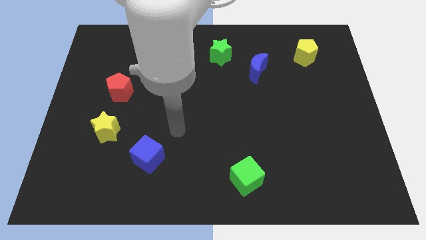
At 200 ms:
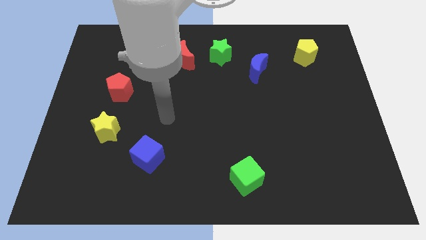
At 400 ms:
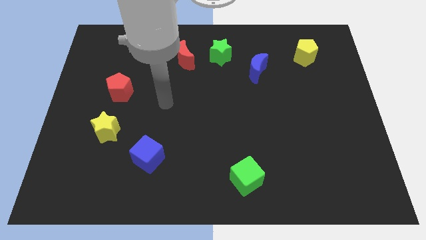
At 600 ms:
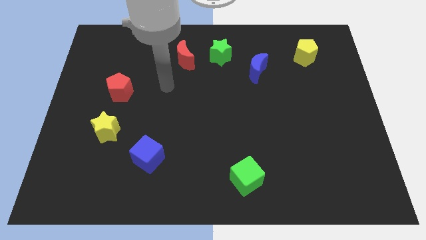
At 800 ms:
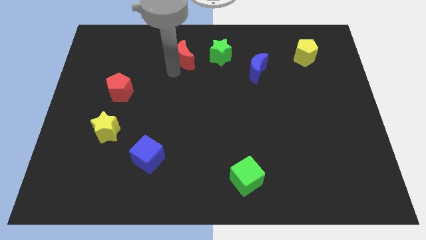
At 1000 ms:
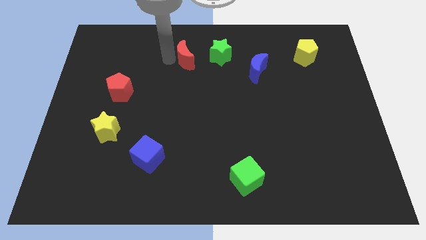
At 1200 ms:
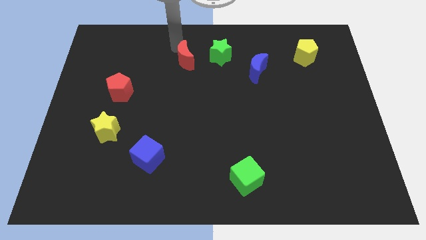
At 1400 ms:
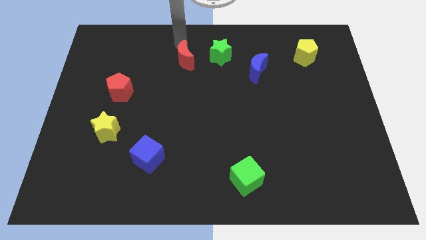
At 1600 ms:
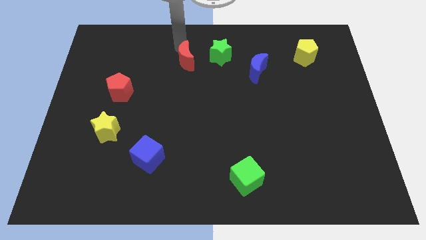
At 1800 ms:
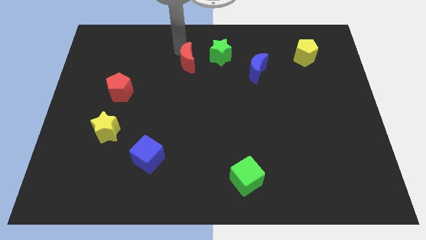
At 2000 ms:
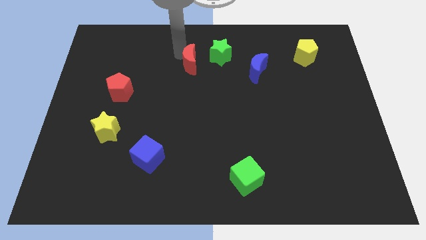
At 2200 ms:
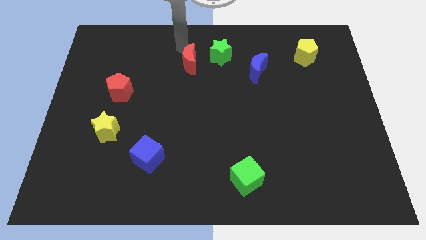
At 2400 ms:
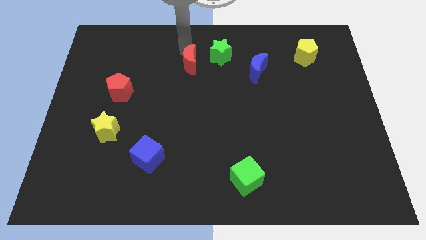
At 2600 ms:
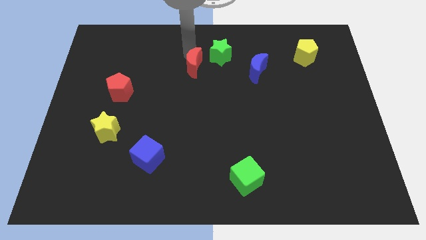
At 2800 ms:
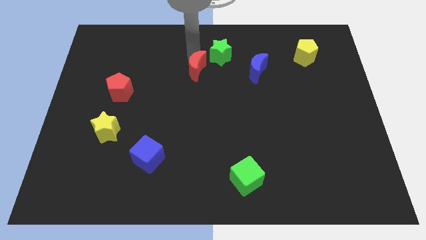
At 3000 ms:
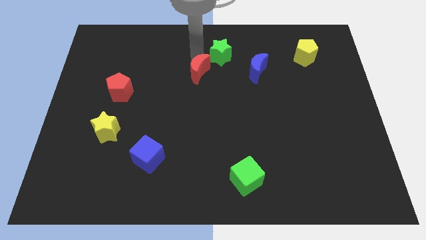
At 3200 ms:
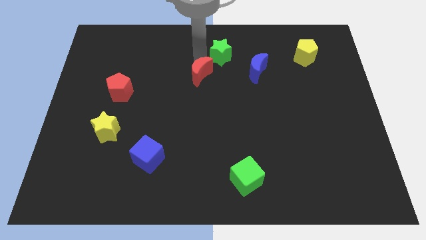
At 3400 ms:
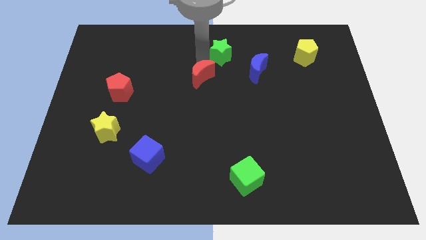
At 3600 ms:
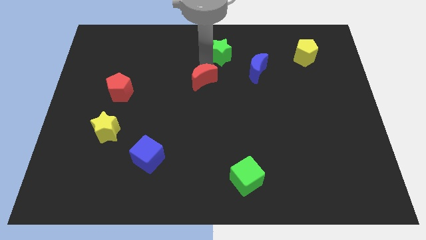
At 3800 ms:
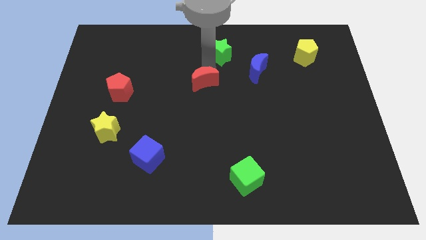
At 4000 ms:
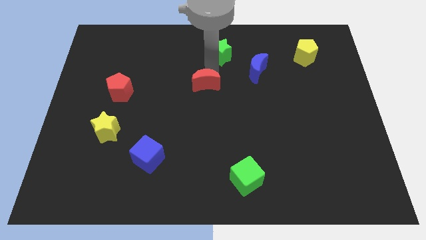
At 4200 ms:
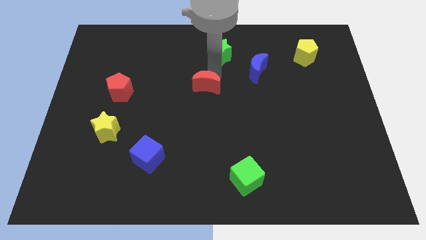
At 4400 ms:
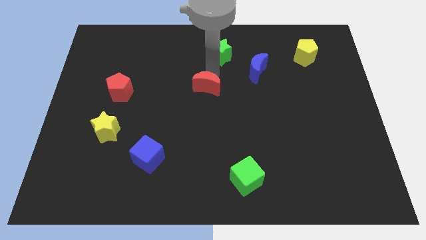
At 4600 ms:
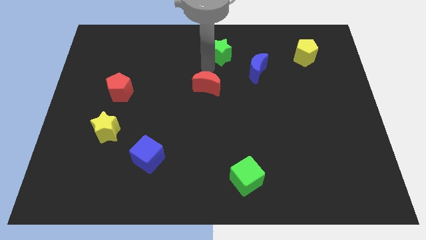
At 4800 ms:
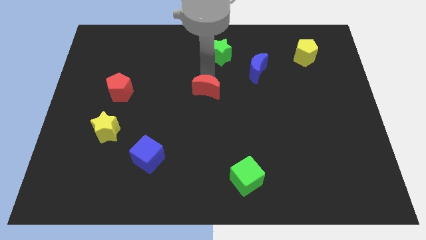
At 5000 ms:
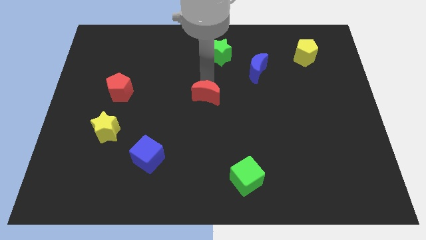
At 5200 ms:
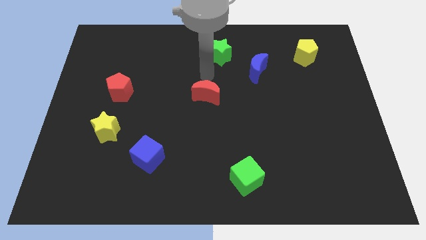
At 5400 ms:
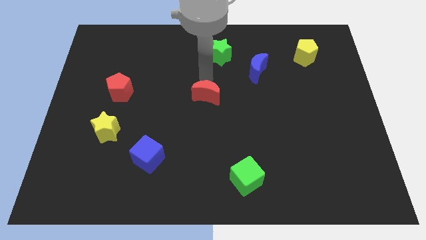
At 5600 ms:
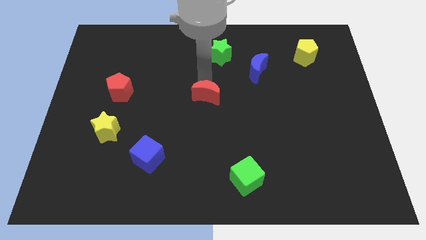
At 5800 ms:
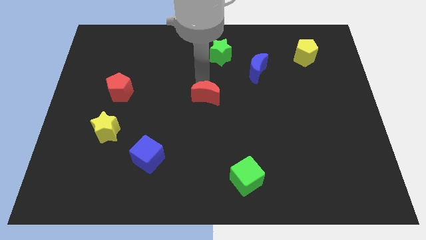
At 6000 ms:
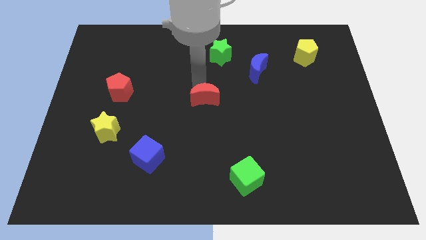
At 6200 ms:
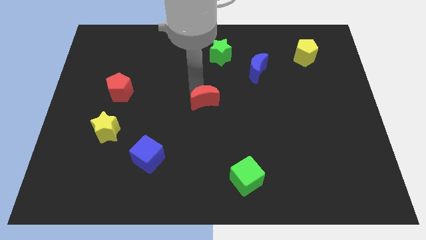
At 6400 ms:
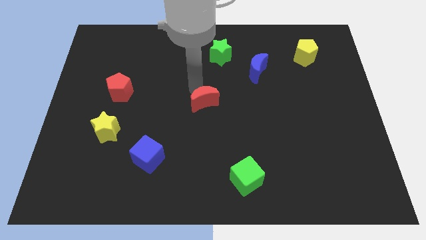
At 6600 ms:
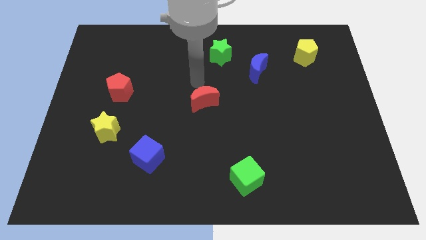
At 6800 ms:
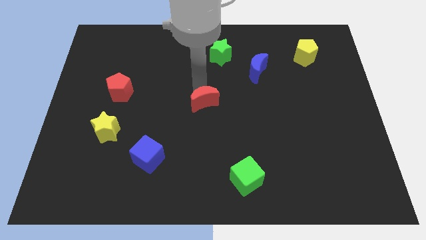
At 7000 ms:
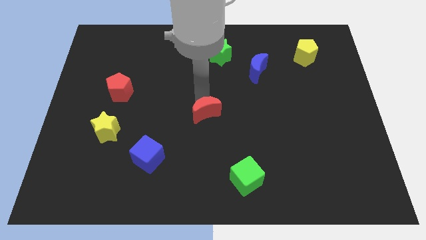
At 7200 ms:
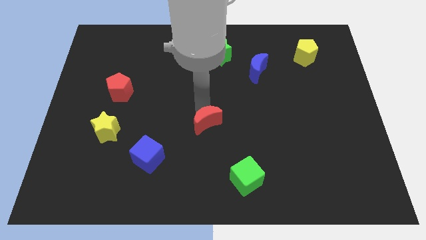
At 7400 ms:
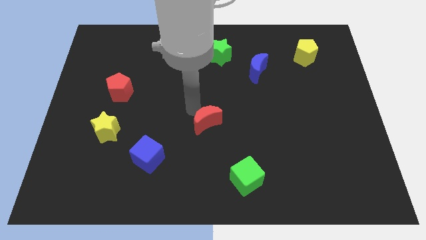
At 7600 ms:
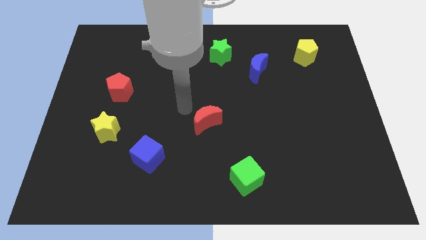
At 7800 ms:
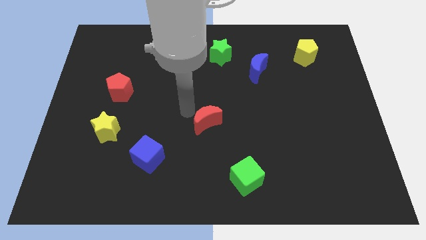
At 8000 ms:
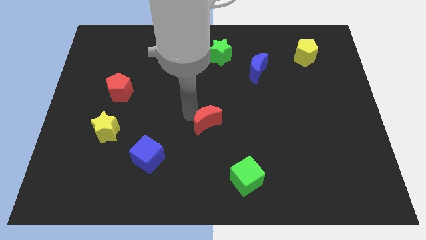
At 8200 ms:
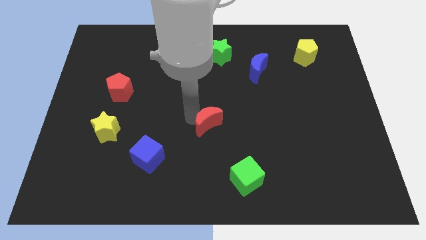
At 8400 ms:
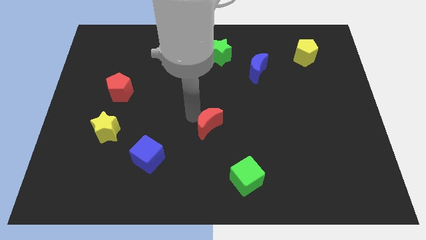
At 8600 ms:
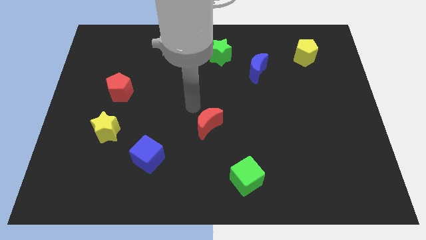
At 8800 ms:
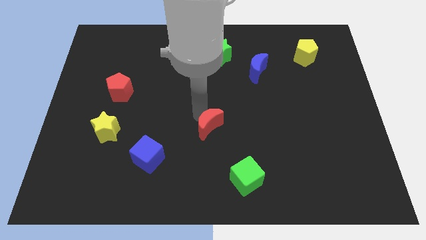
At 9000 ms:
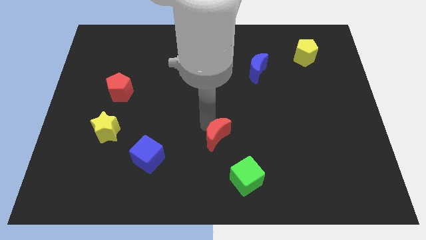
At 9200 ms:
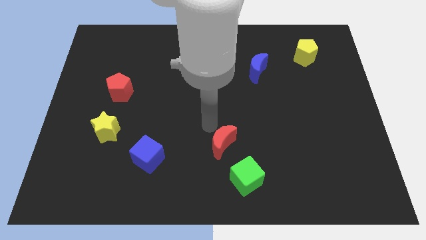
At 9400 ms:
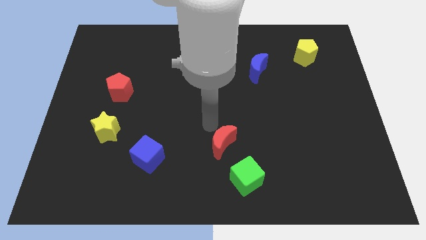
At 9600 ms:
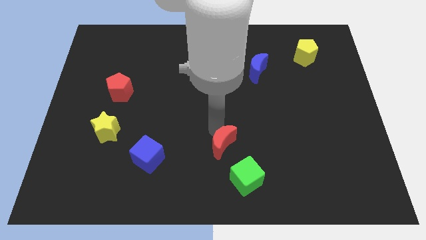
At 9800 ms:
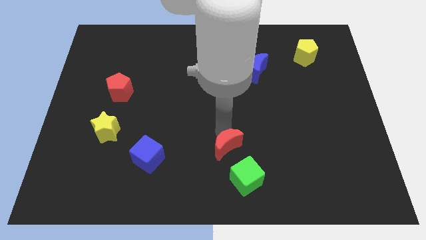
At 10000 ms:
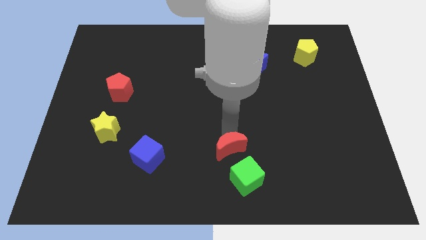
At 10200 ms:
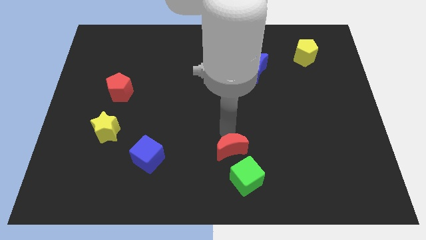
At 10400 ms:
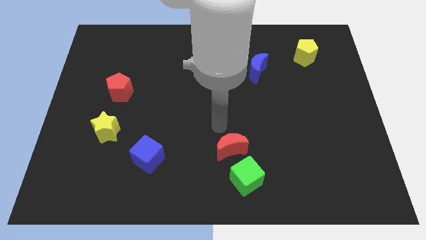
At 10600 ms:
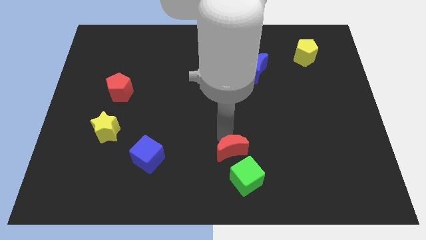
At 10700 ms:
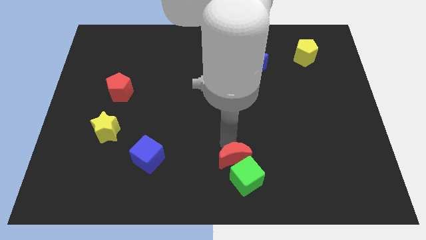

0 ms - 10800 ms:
push the red moon towards the green cube

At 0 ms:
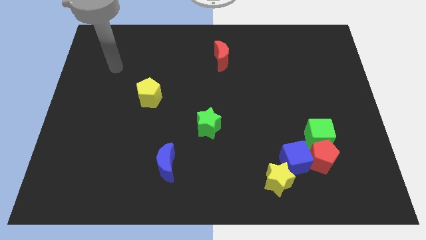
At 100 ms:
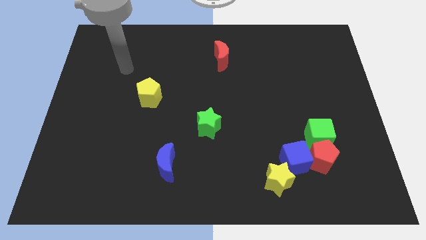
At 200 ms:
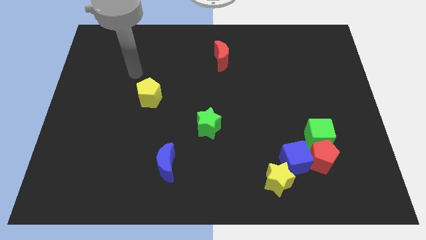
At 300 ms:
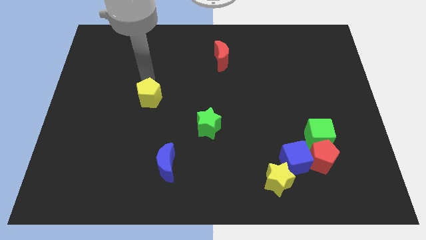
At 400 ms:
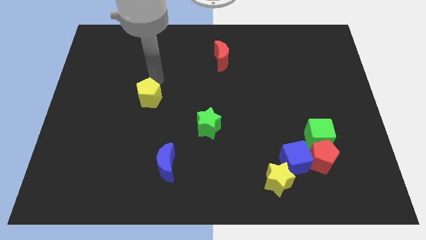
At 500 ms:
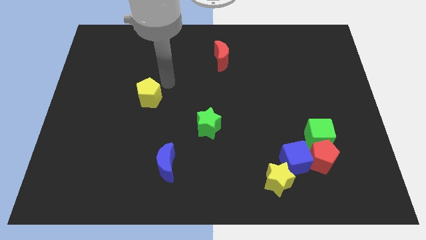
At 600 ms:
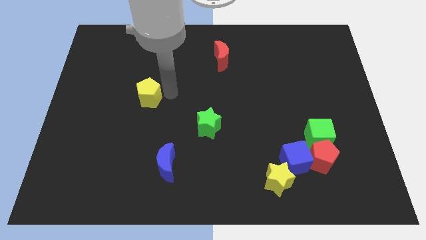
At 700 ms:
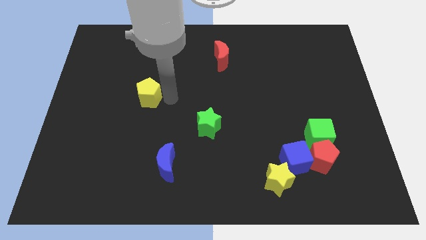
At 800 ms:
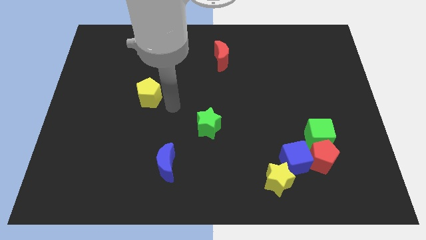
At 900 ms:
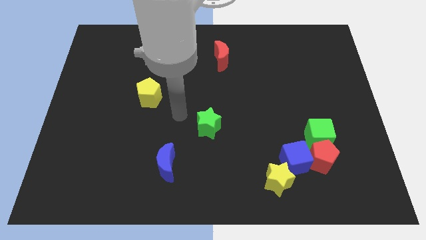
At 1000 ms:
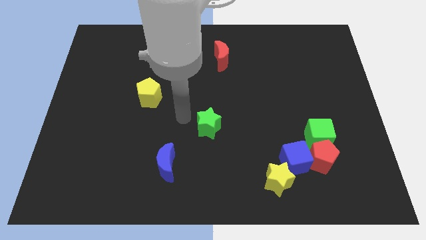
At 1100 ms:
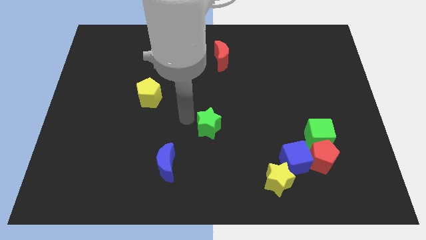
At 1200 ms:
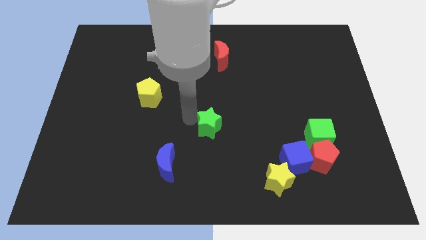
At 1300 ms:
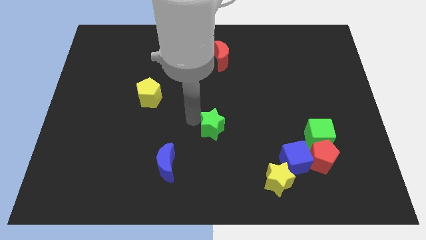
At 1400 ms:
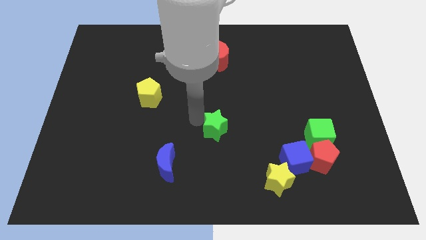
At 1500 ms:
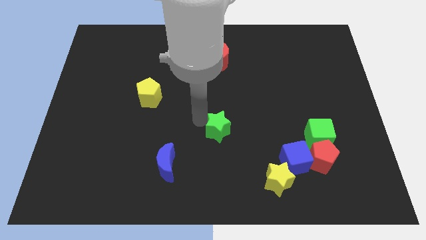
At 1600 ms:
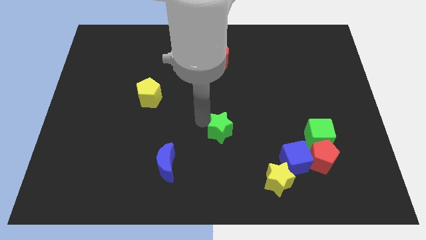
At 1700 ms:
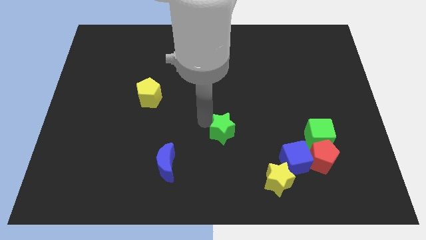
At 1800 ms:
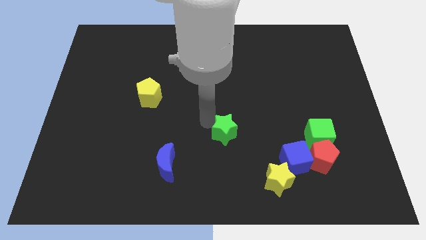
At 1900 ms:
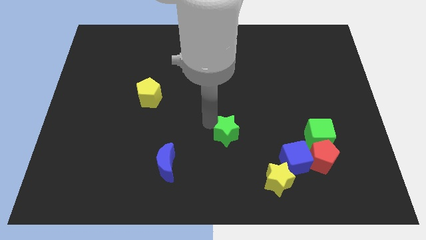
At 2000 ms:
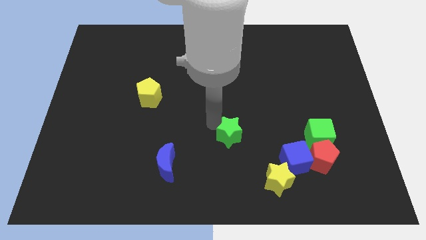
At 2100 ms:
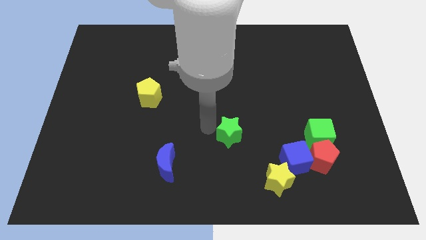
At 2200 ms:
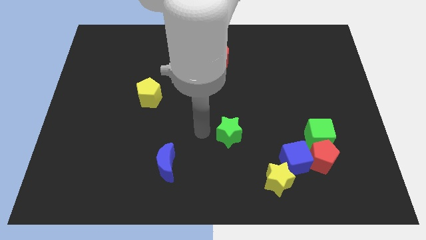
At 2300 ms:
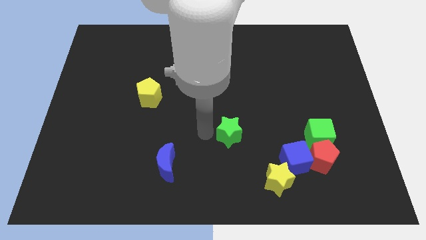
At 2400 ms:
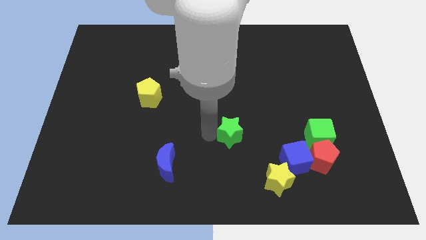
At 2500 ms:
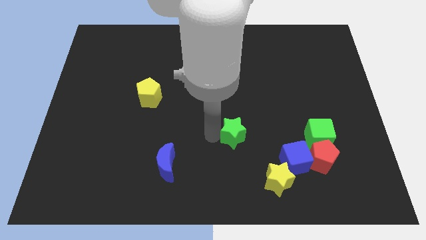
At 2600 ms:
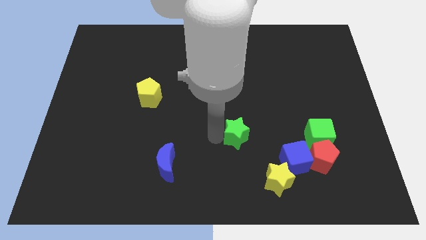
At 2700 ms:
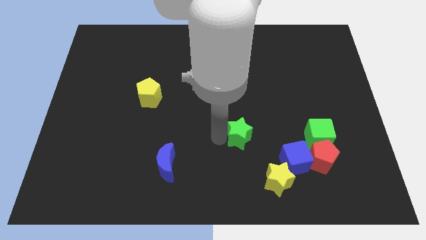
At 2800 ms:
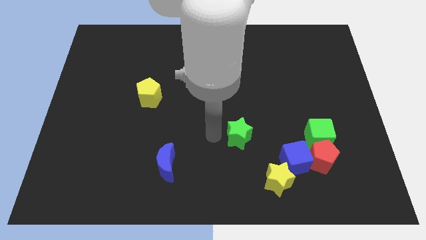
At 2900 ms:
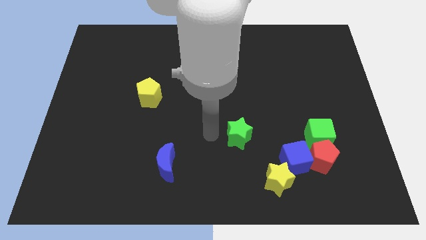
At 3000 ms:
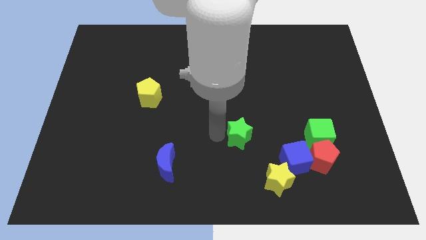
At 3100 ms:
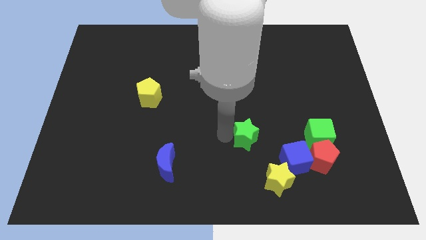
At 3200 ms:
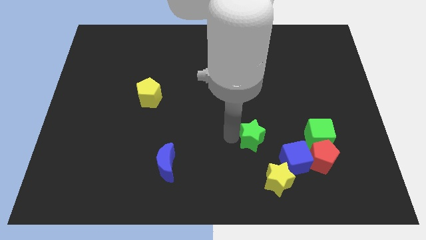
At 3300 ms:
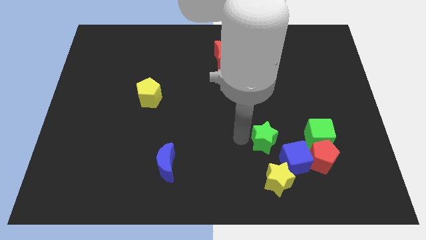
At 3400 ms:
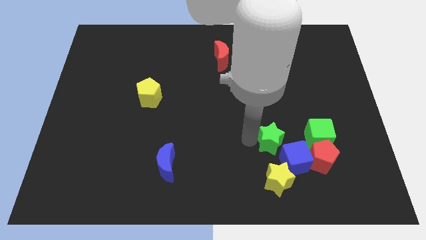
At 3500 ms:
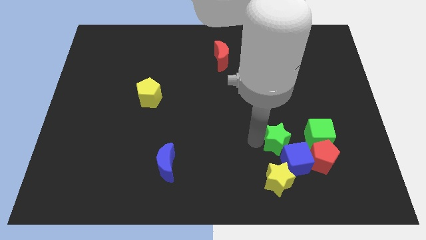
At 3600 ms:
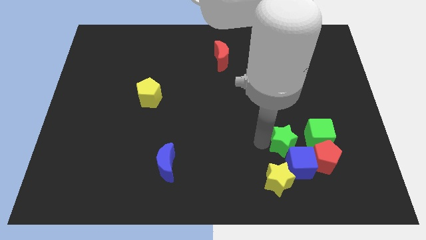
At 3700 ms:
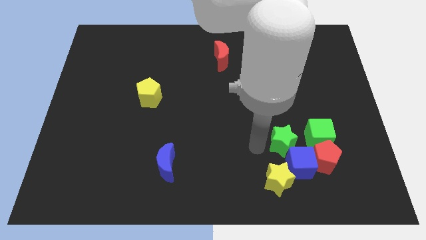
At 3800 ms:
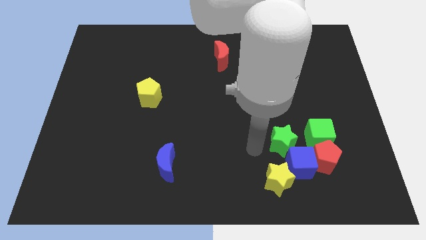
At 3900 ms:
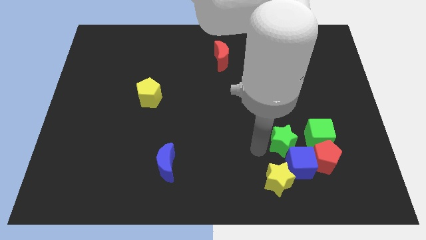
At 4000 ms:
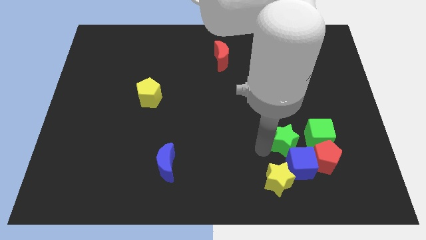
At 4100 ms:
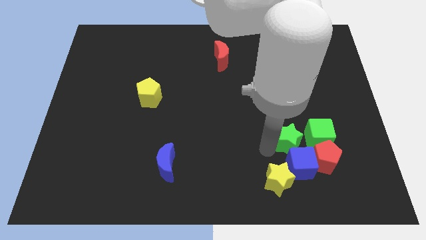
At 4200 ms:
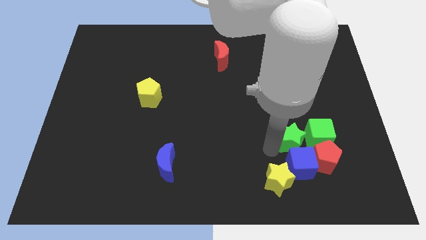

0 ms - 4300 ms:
push the green star towards the green cube
